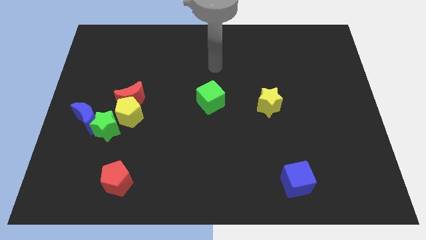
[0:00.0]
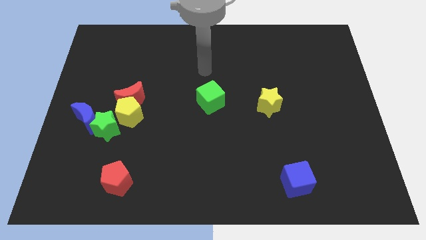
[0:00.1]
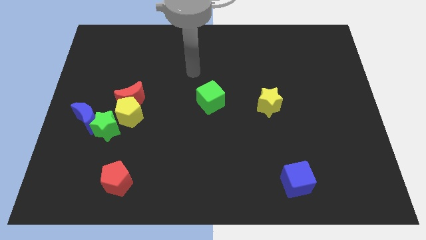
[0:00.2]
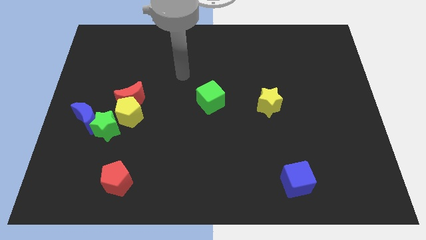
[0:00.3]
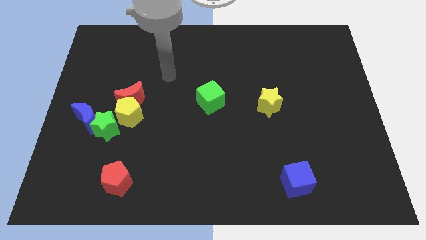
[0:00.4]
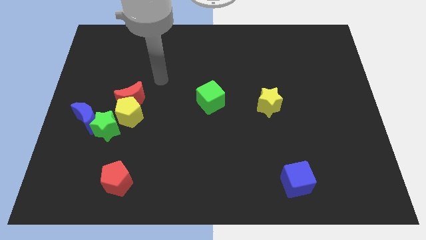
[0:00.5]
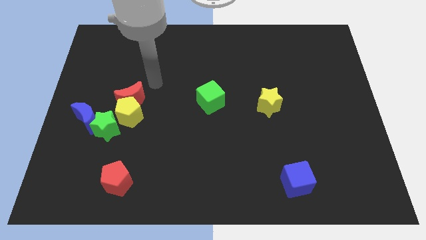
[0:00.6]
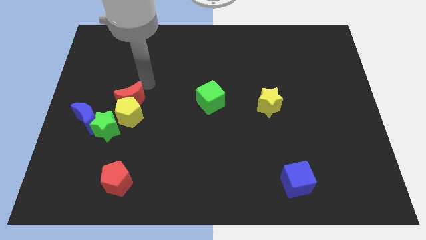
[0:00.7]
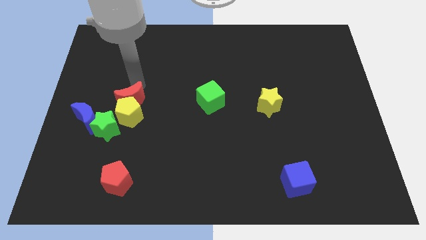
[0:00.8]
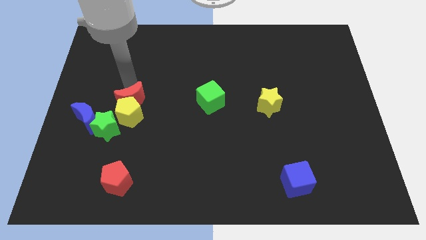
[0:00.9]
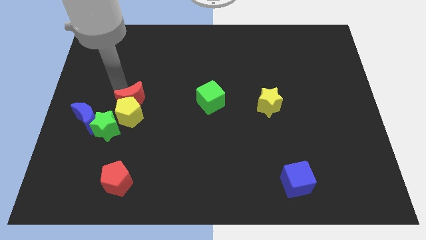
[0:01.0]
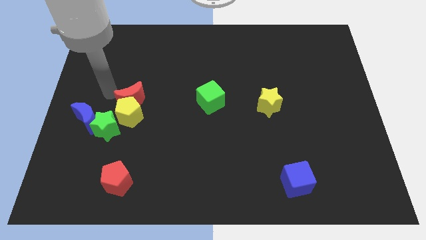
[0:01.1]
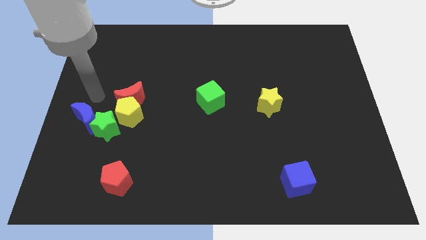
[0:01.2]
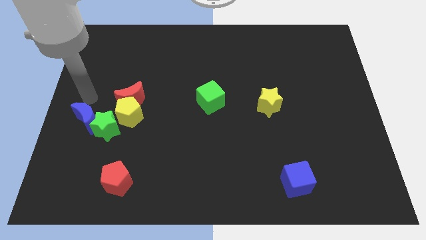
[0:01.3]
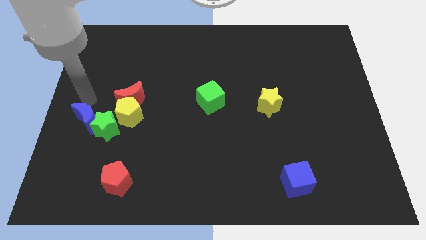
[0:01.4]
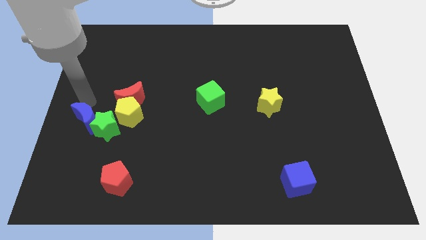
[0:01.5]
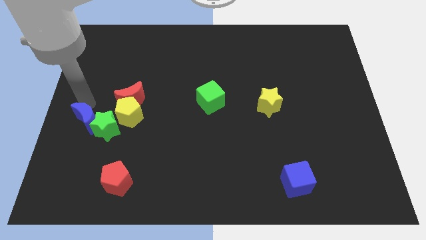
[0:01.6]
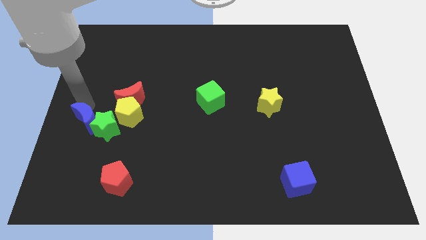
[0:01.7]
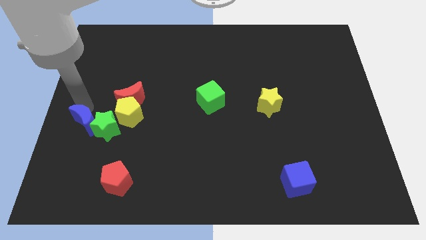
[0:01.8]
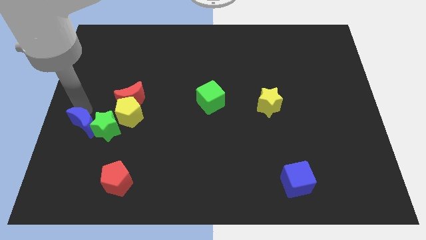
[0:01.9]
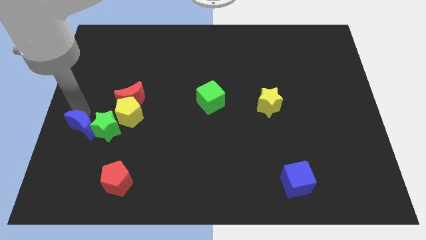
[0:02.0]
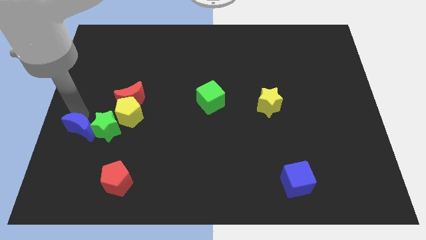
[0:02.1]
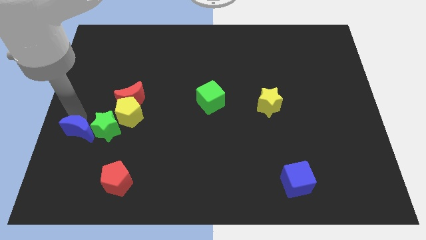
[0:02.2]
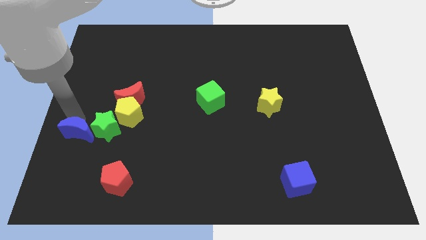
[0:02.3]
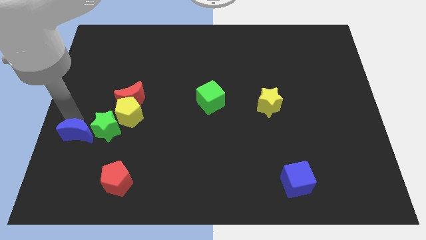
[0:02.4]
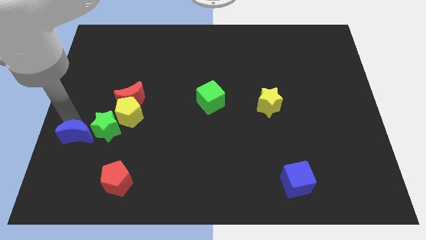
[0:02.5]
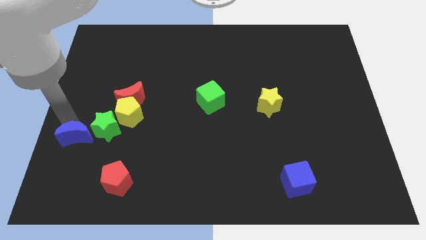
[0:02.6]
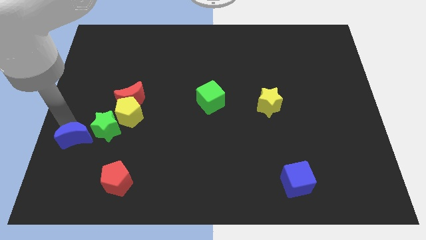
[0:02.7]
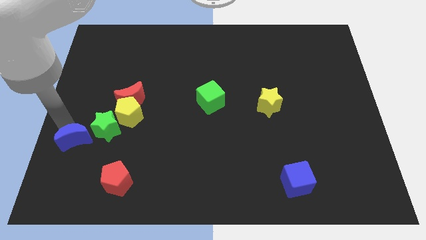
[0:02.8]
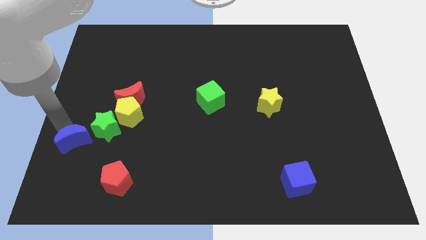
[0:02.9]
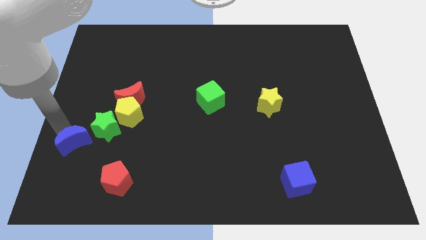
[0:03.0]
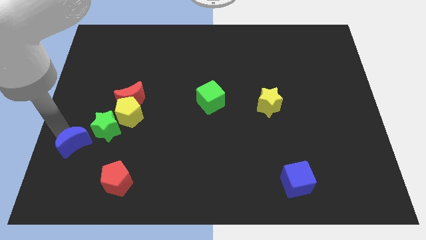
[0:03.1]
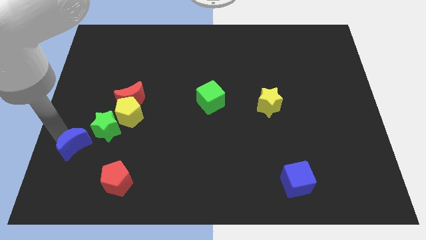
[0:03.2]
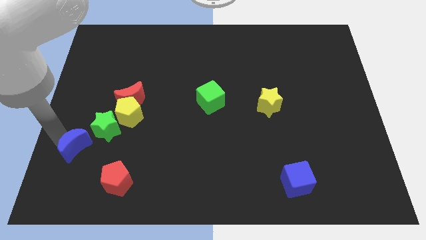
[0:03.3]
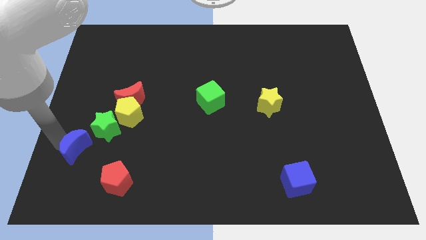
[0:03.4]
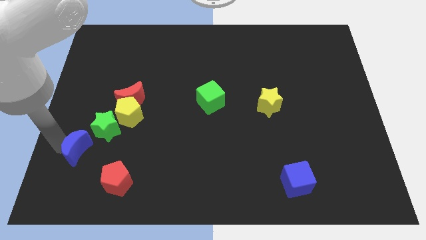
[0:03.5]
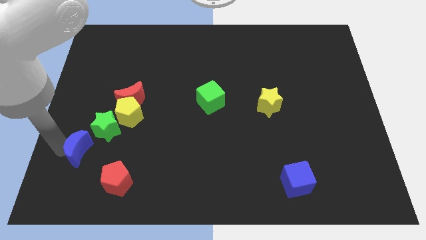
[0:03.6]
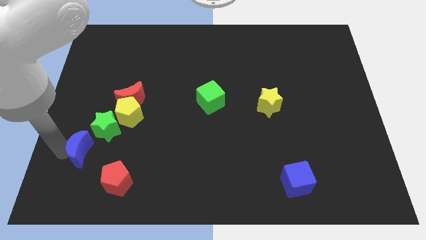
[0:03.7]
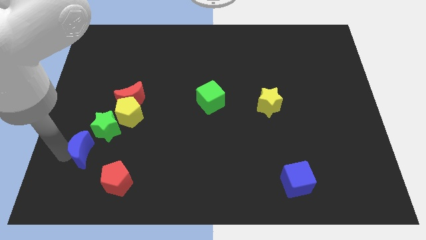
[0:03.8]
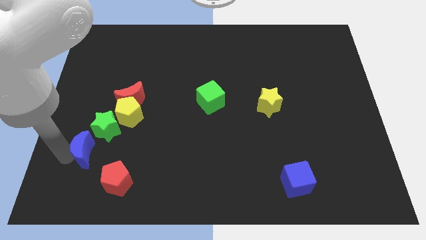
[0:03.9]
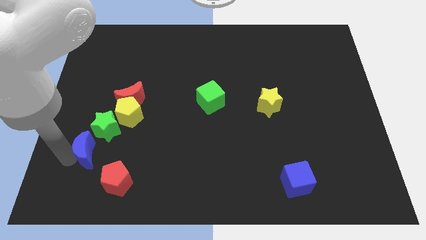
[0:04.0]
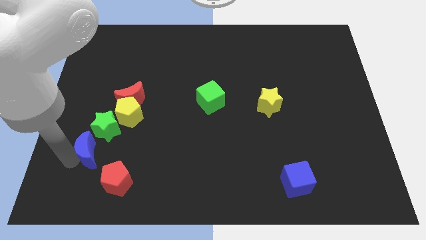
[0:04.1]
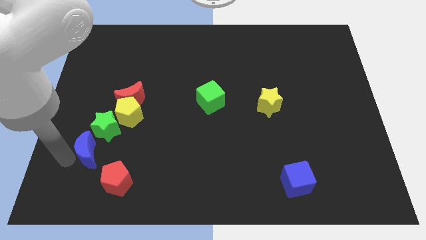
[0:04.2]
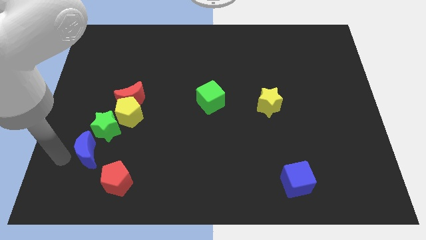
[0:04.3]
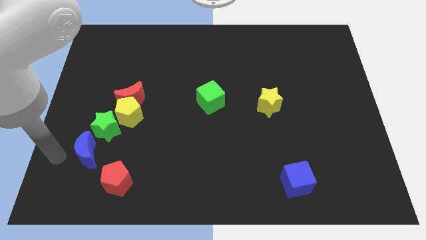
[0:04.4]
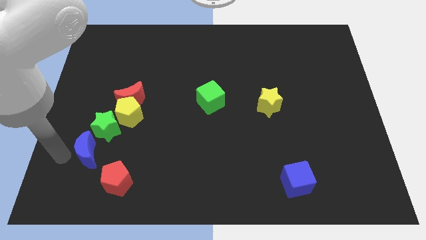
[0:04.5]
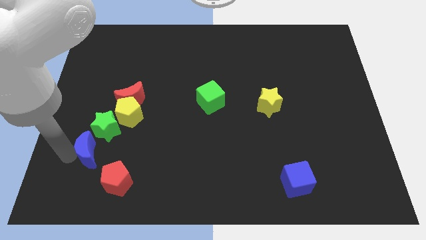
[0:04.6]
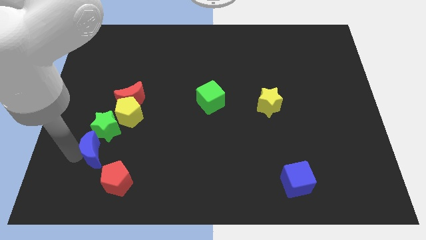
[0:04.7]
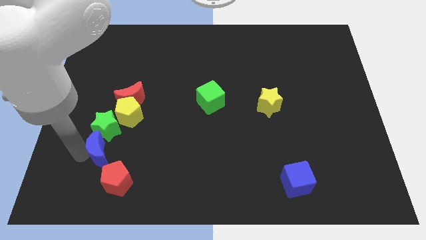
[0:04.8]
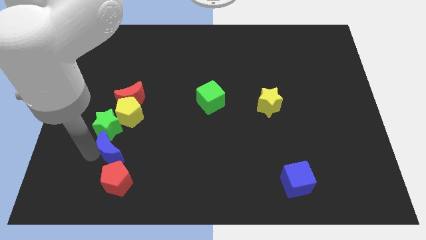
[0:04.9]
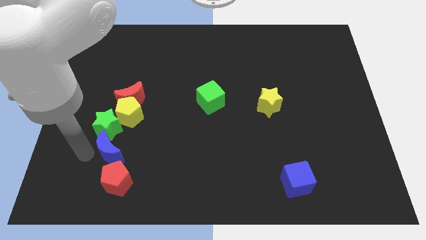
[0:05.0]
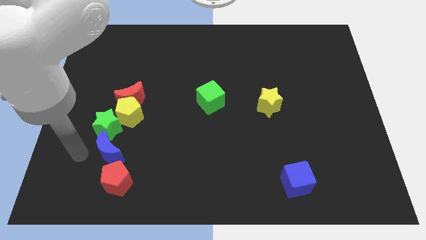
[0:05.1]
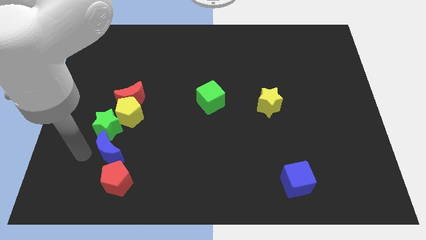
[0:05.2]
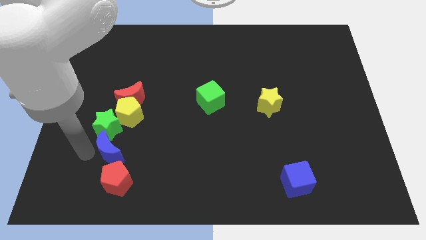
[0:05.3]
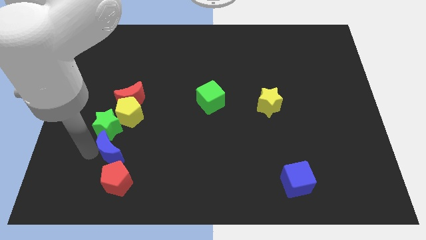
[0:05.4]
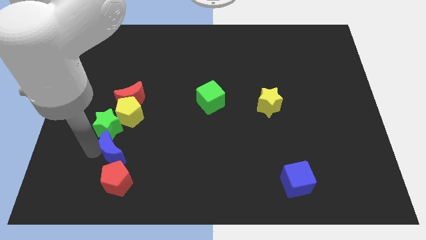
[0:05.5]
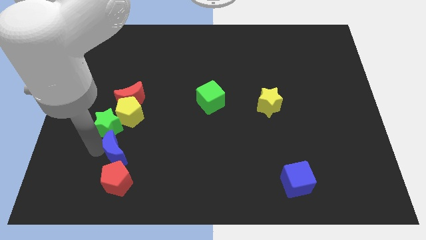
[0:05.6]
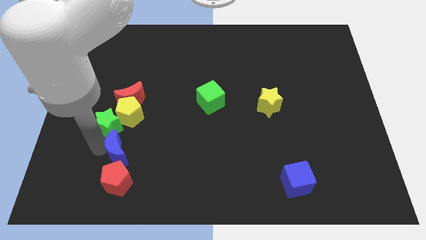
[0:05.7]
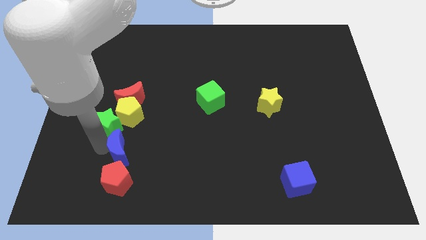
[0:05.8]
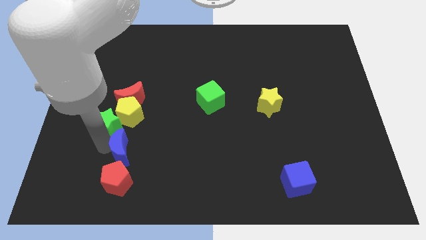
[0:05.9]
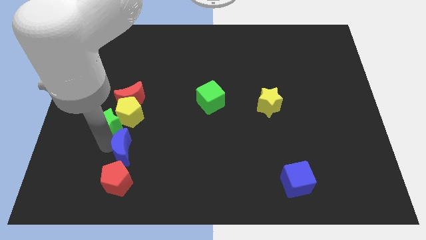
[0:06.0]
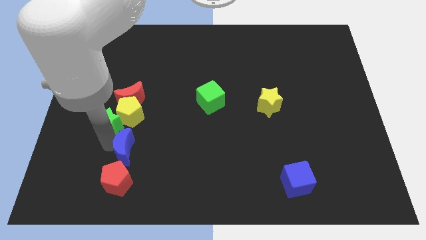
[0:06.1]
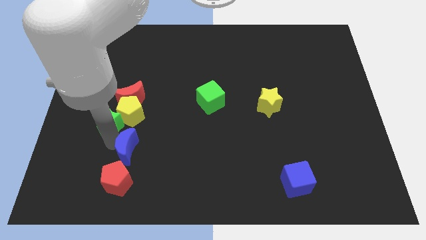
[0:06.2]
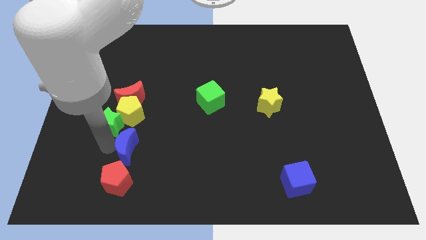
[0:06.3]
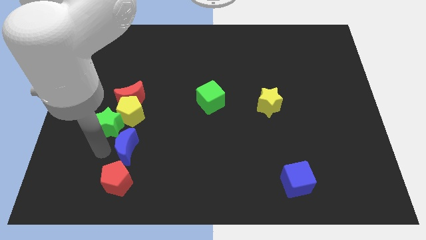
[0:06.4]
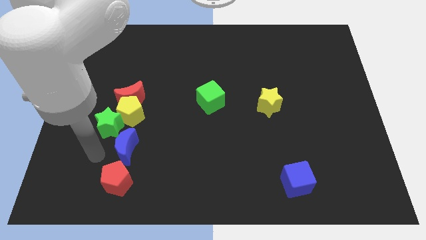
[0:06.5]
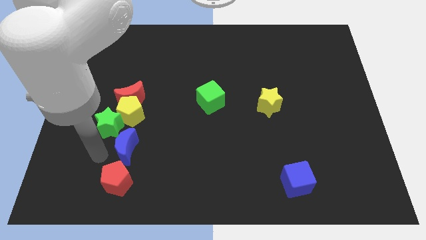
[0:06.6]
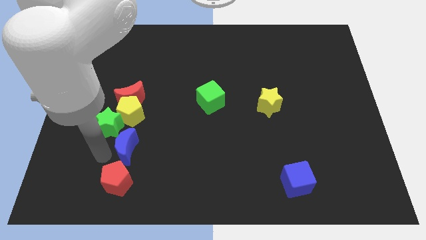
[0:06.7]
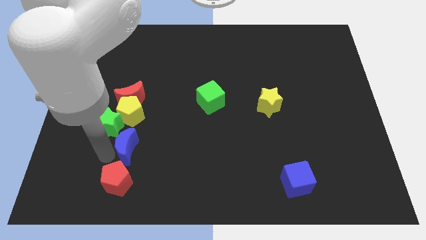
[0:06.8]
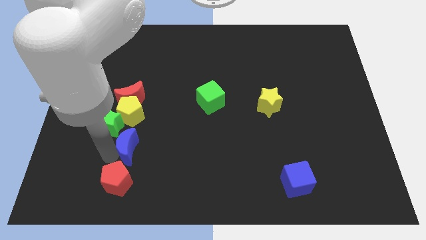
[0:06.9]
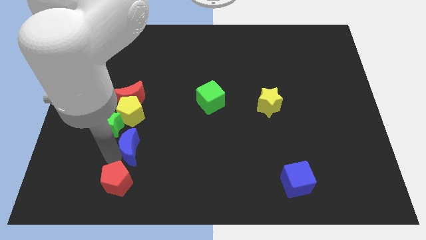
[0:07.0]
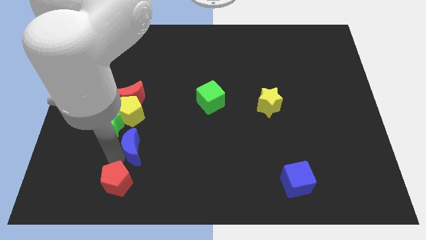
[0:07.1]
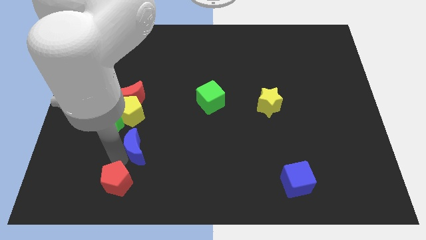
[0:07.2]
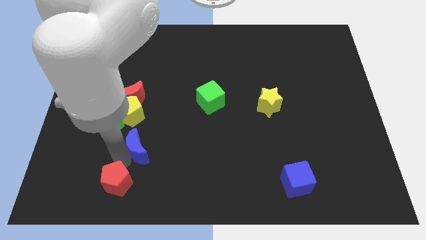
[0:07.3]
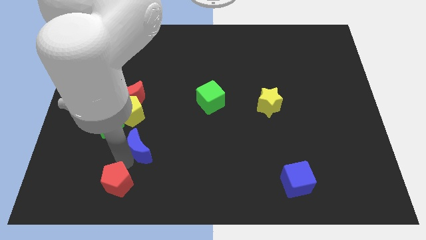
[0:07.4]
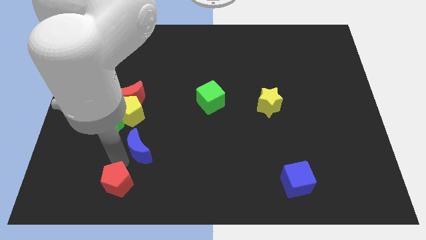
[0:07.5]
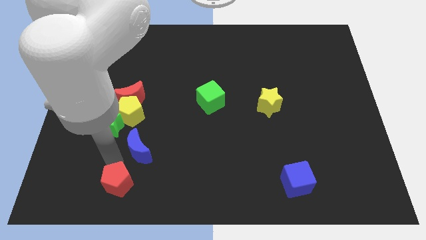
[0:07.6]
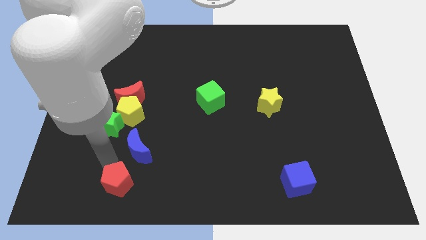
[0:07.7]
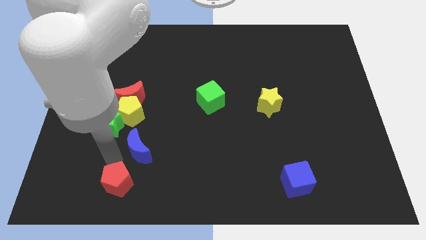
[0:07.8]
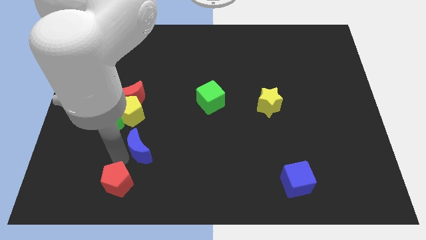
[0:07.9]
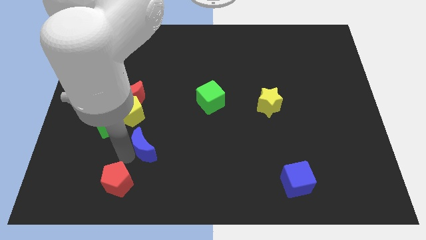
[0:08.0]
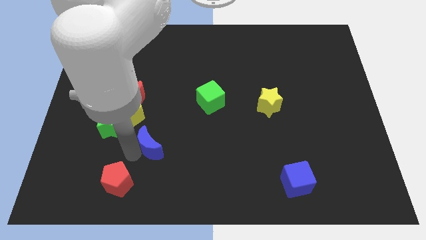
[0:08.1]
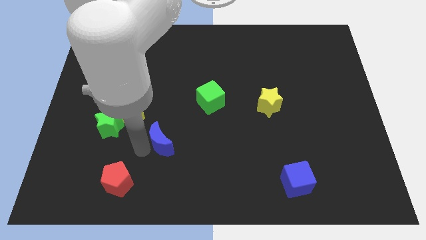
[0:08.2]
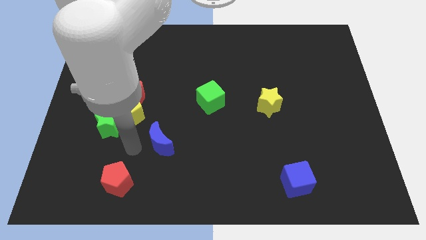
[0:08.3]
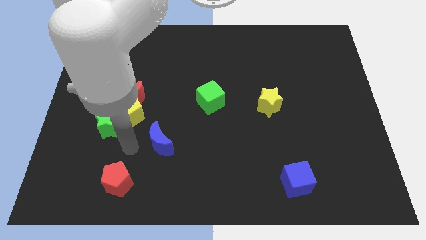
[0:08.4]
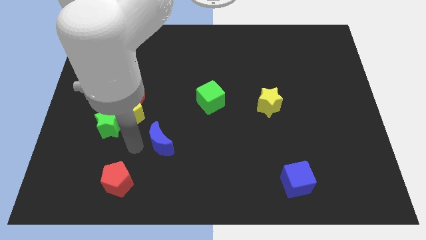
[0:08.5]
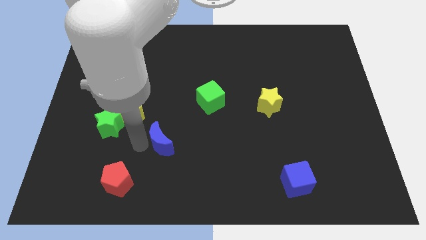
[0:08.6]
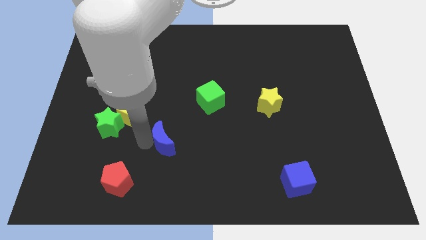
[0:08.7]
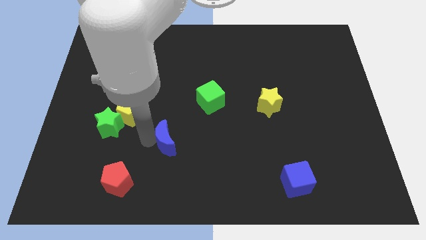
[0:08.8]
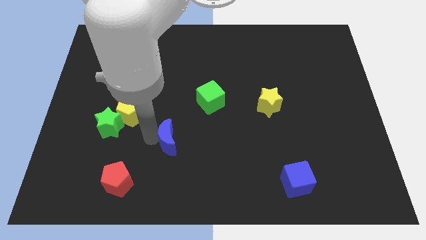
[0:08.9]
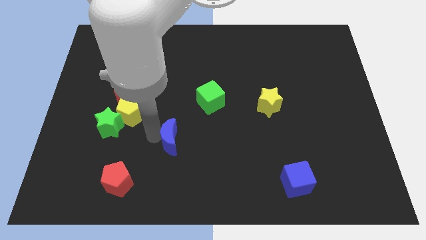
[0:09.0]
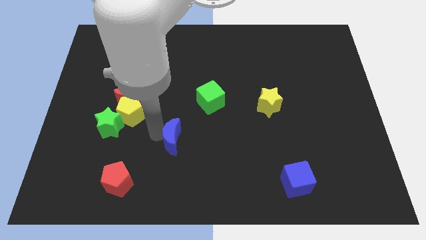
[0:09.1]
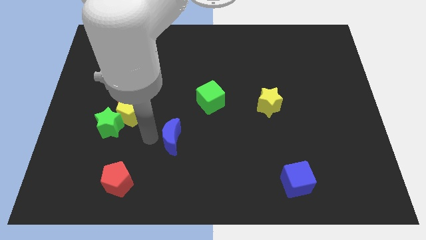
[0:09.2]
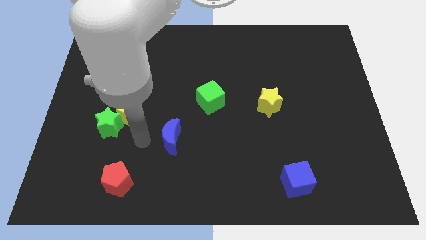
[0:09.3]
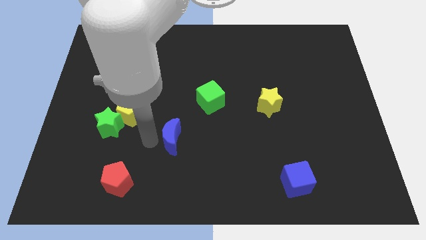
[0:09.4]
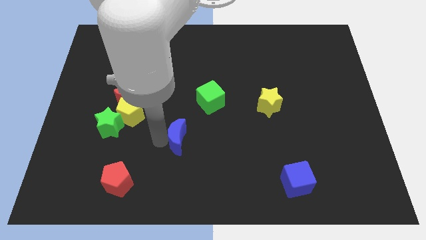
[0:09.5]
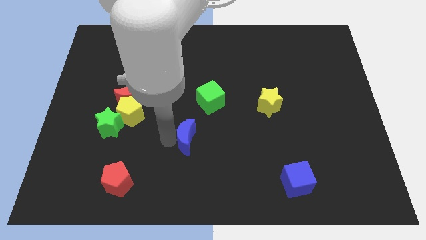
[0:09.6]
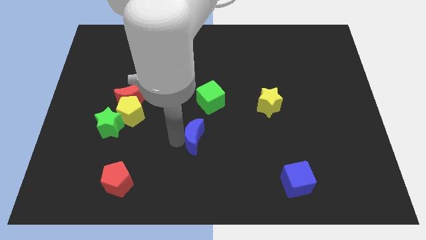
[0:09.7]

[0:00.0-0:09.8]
move the blue moon to the bottom of the green cube
